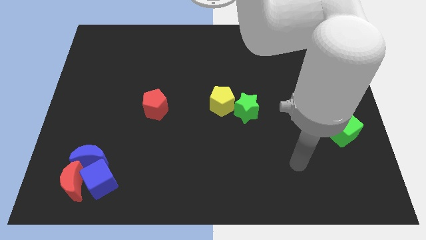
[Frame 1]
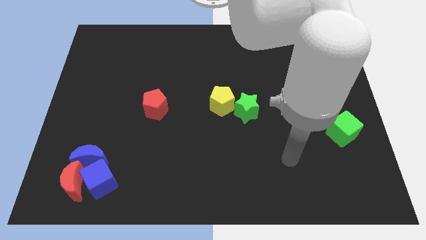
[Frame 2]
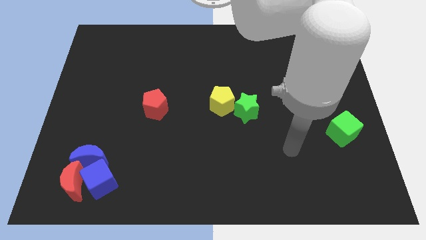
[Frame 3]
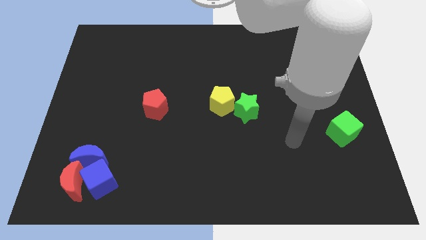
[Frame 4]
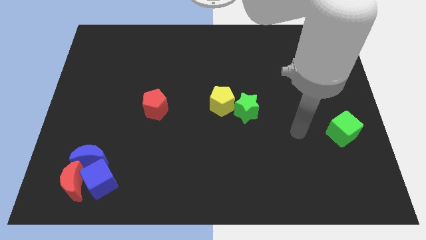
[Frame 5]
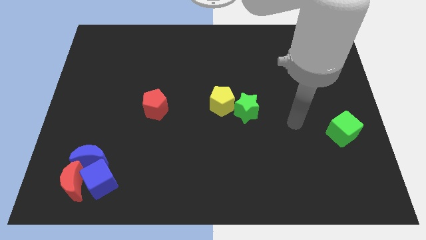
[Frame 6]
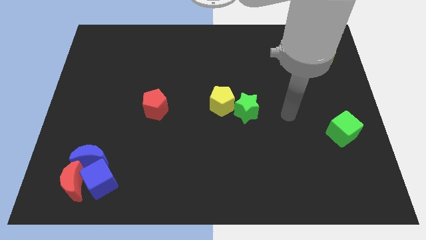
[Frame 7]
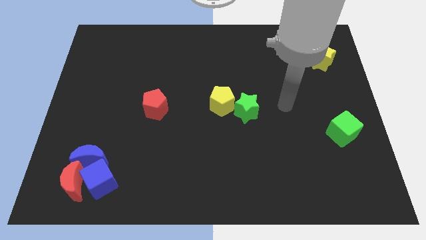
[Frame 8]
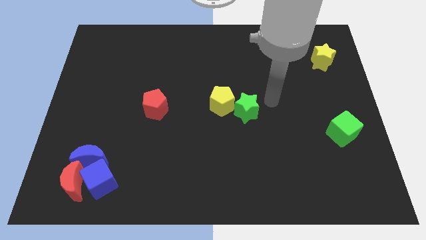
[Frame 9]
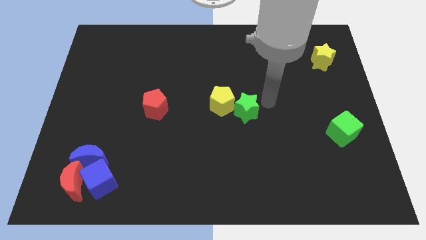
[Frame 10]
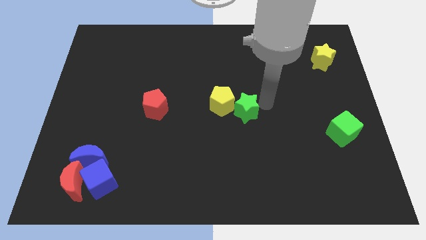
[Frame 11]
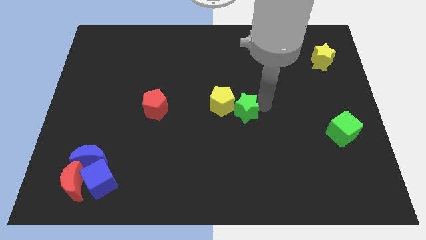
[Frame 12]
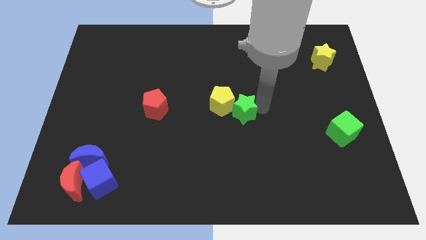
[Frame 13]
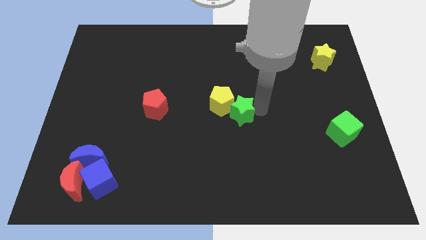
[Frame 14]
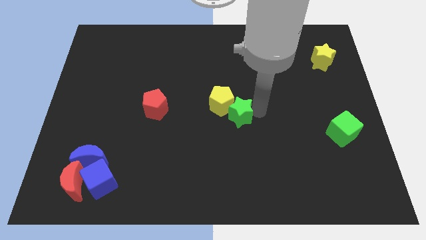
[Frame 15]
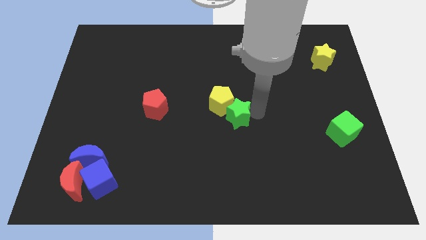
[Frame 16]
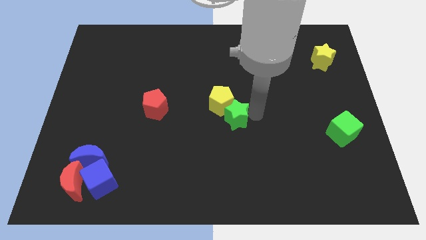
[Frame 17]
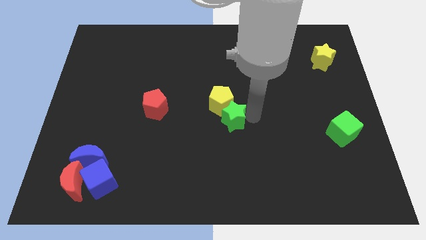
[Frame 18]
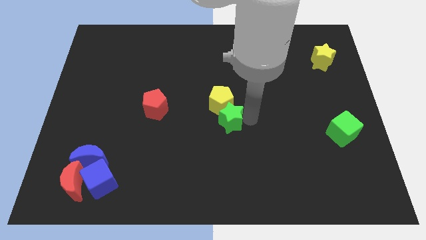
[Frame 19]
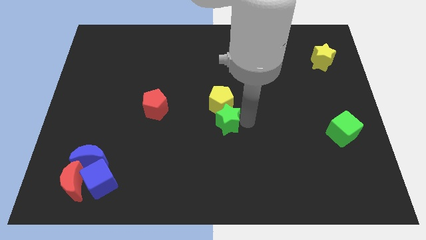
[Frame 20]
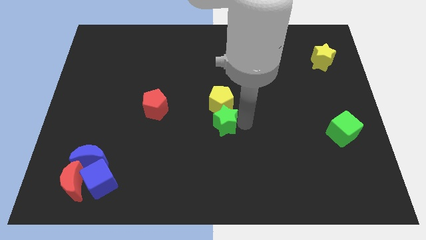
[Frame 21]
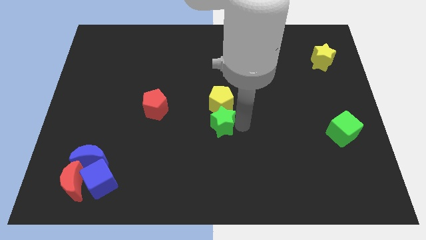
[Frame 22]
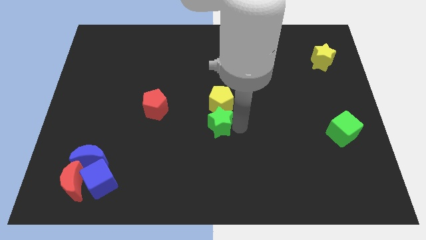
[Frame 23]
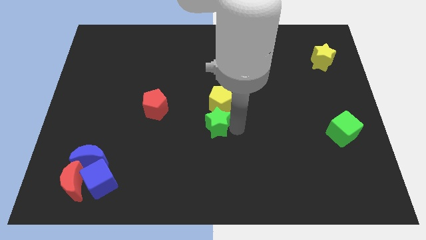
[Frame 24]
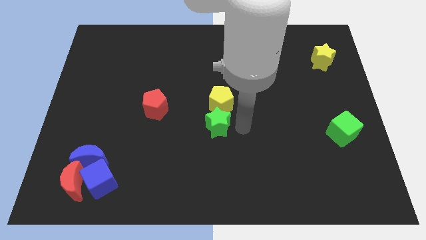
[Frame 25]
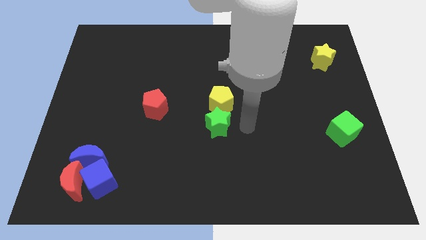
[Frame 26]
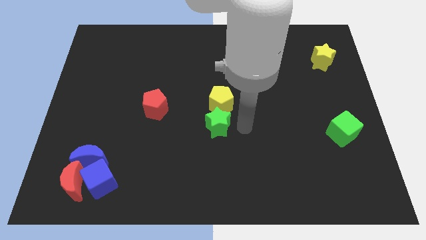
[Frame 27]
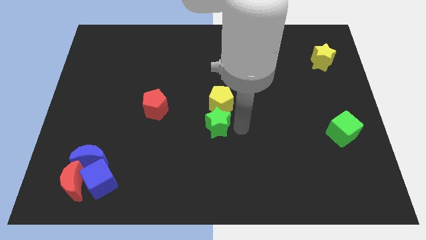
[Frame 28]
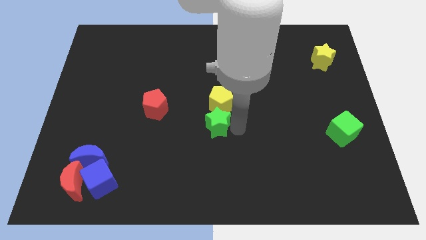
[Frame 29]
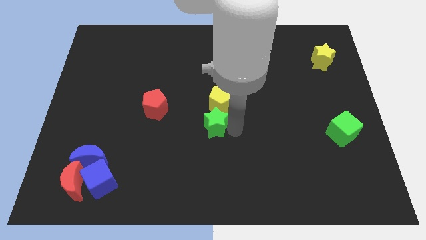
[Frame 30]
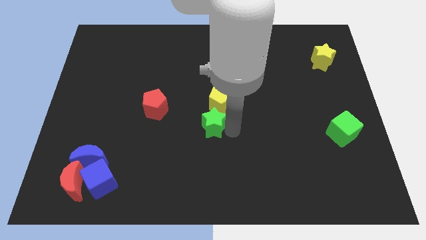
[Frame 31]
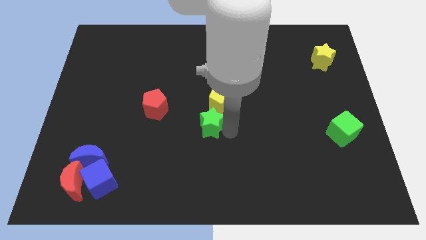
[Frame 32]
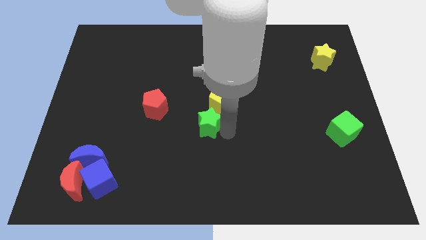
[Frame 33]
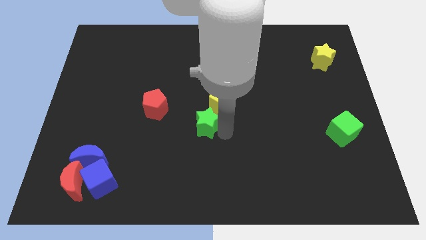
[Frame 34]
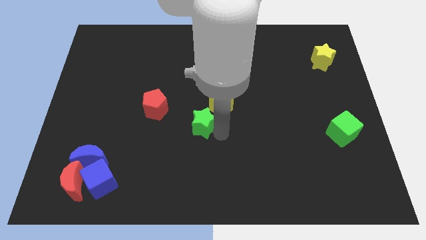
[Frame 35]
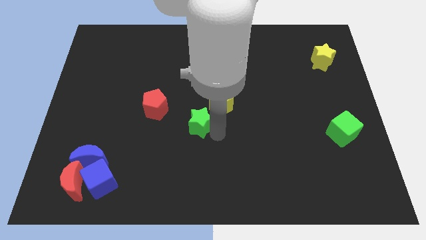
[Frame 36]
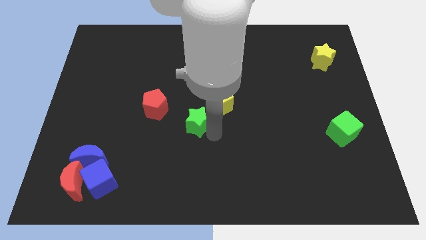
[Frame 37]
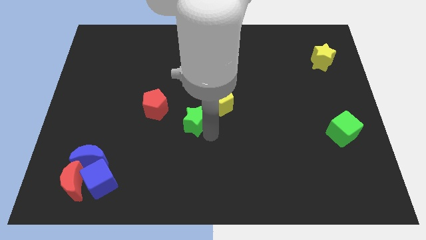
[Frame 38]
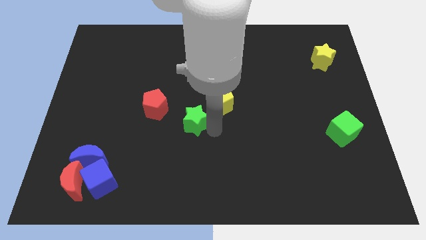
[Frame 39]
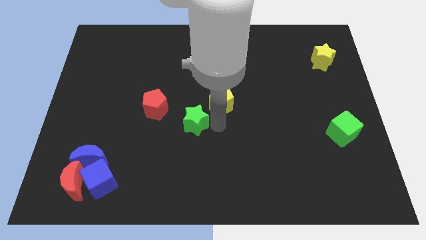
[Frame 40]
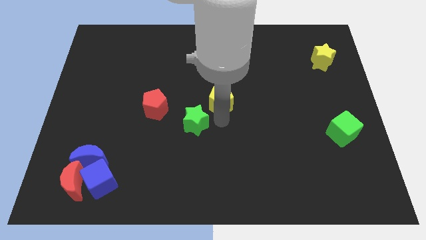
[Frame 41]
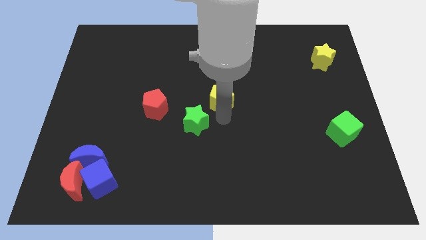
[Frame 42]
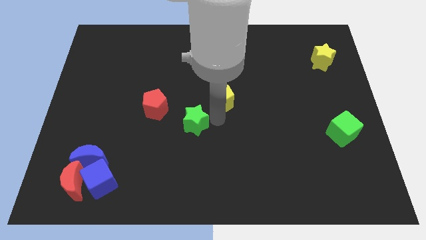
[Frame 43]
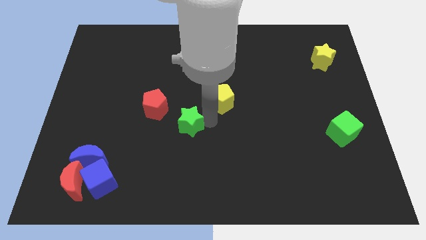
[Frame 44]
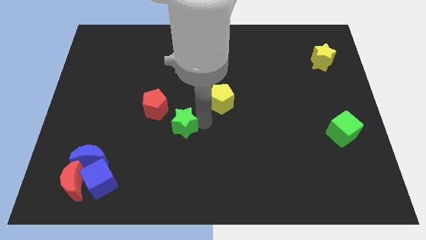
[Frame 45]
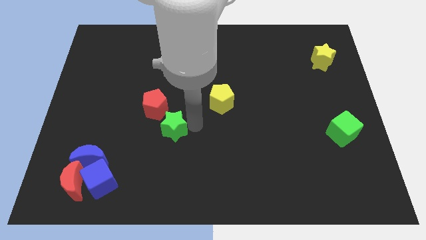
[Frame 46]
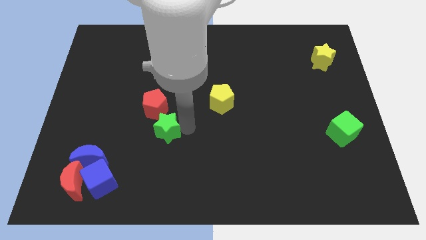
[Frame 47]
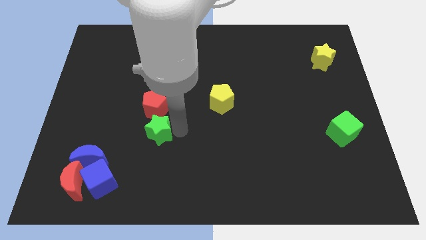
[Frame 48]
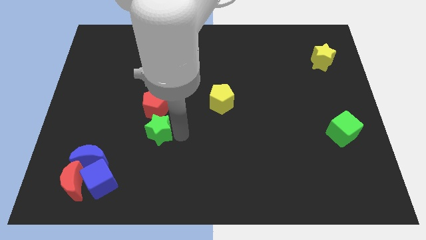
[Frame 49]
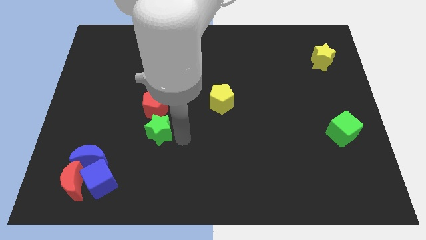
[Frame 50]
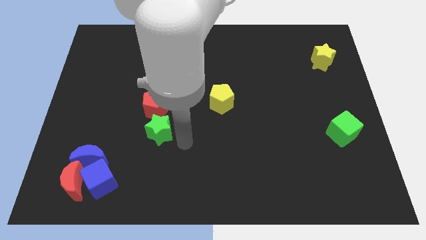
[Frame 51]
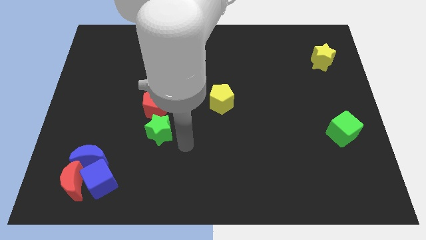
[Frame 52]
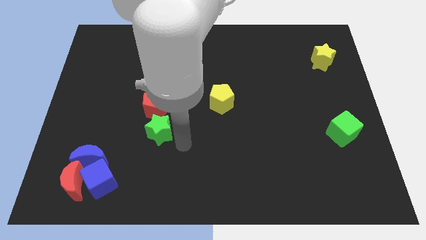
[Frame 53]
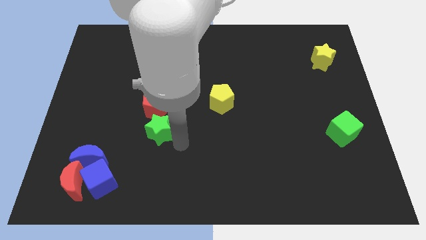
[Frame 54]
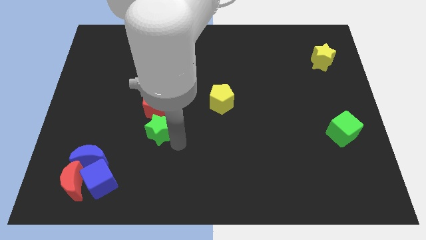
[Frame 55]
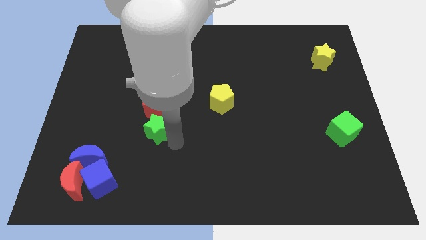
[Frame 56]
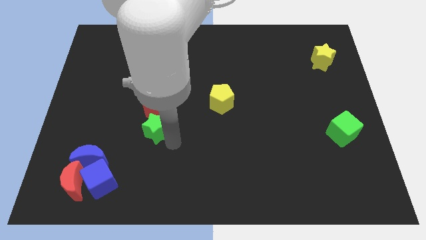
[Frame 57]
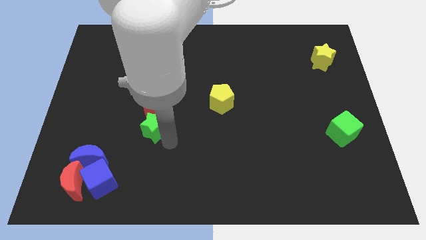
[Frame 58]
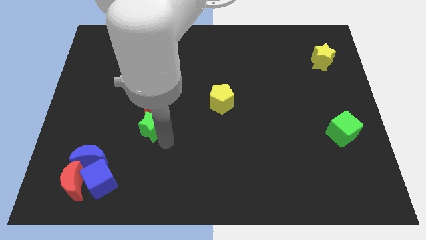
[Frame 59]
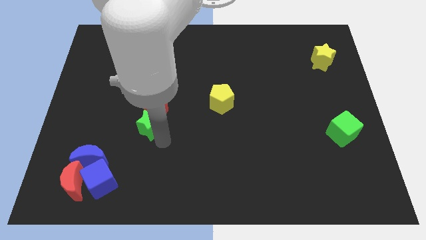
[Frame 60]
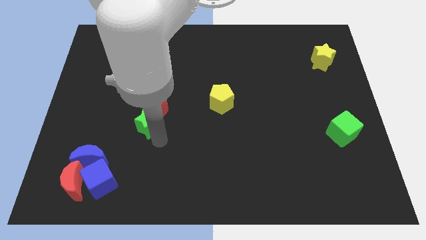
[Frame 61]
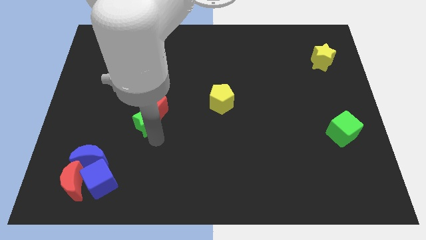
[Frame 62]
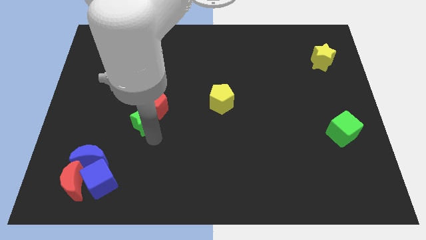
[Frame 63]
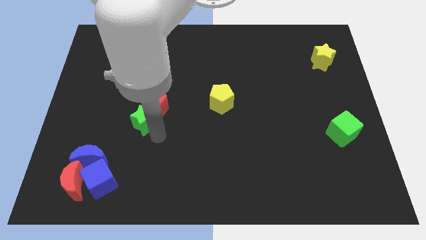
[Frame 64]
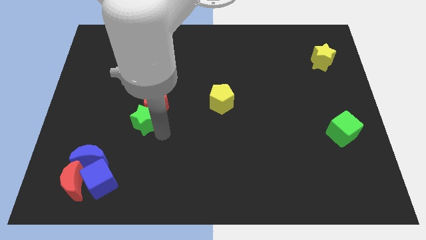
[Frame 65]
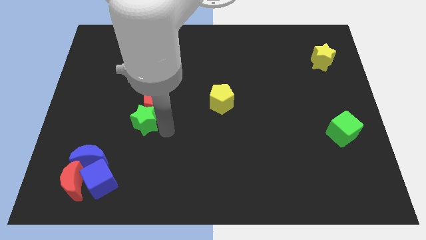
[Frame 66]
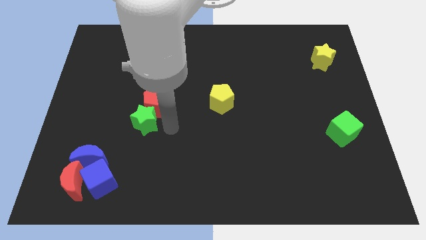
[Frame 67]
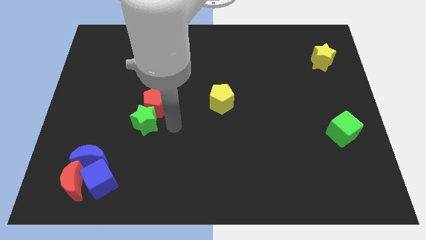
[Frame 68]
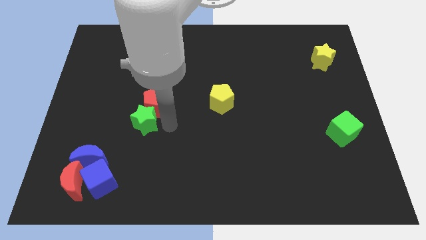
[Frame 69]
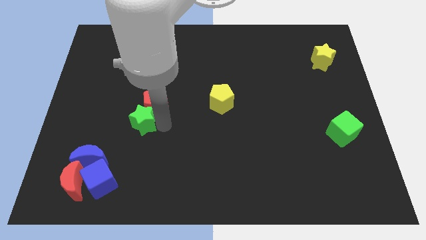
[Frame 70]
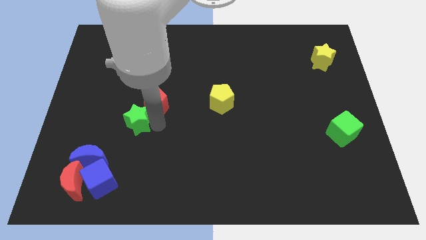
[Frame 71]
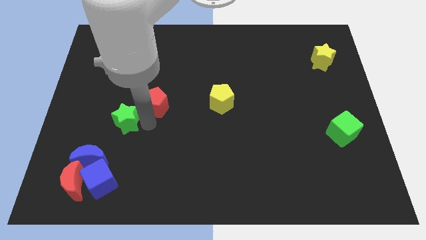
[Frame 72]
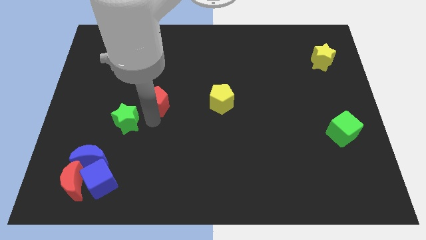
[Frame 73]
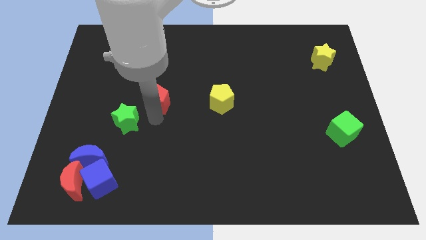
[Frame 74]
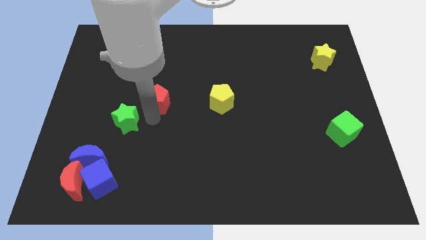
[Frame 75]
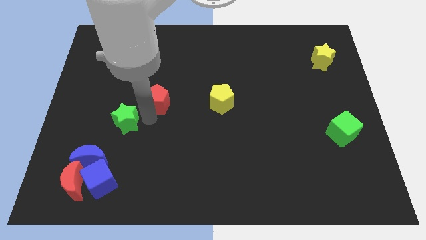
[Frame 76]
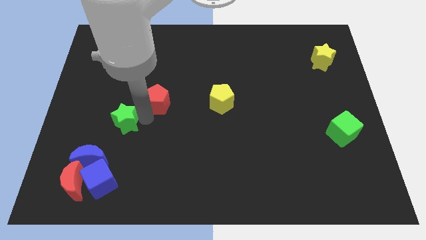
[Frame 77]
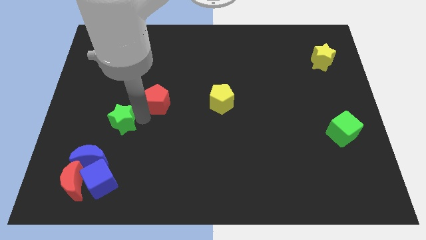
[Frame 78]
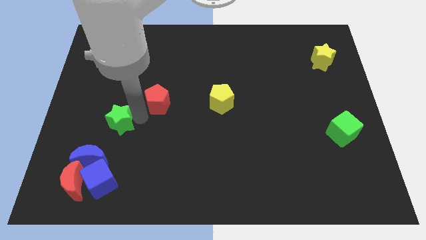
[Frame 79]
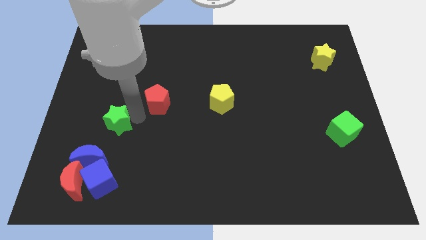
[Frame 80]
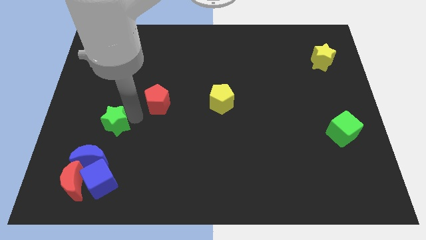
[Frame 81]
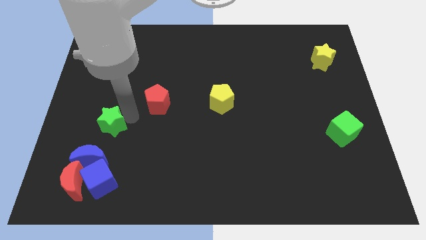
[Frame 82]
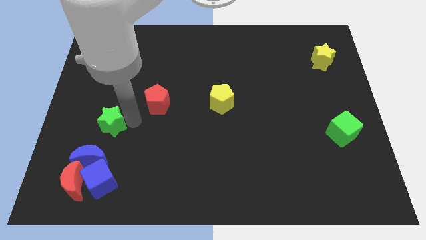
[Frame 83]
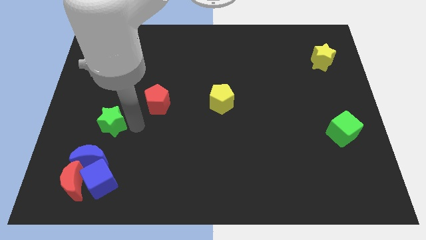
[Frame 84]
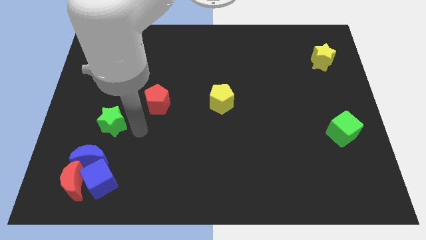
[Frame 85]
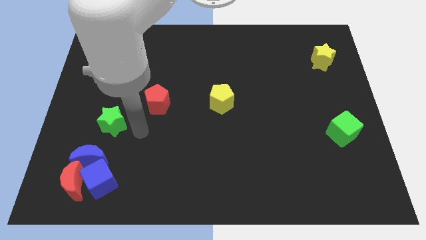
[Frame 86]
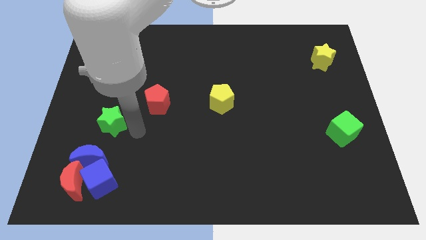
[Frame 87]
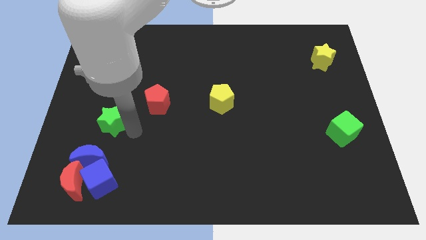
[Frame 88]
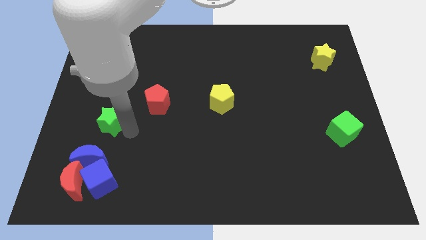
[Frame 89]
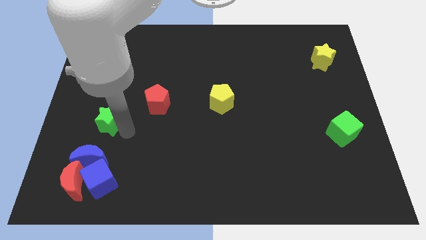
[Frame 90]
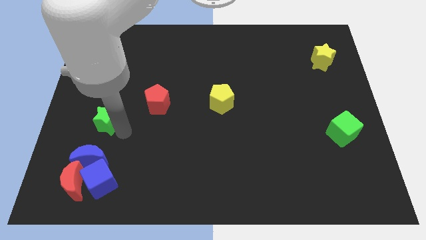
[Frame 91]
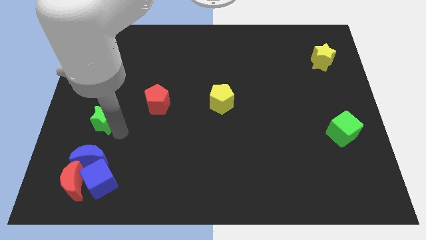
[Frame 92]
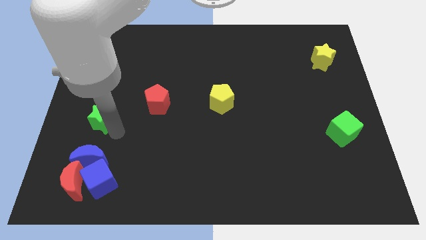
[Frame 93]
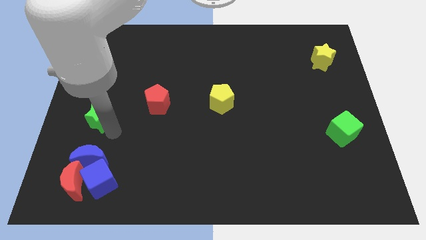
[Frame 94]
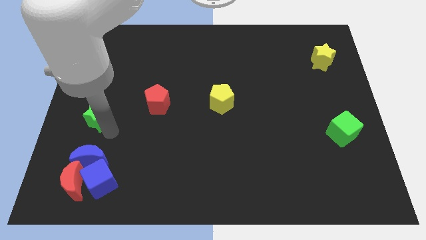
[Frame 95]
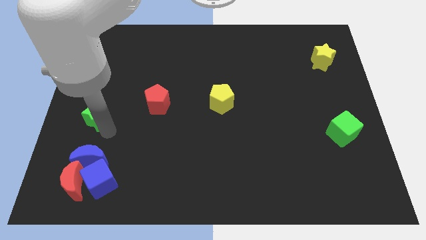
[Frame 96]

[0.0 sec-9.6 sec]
move the green star to the left side
